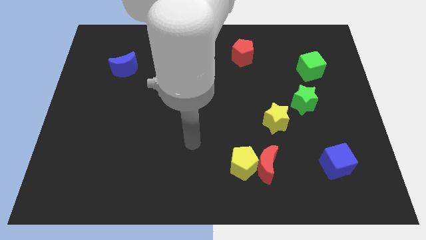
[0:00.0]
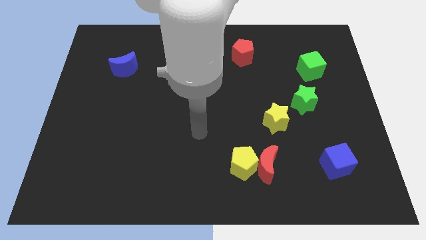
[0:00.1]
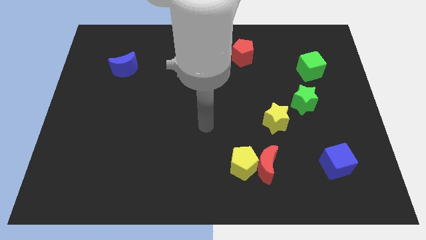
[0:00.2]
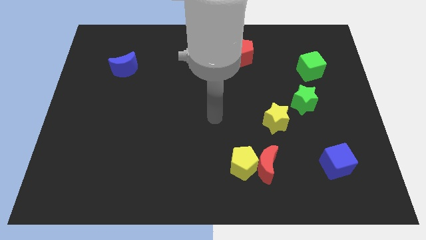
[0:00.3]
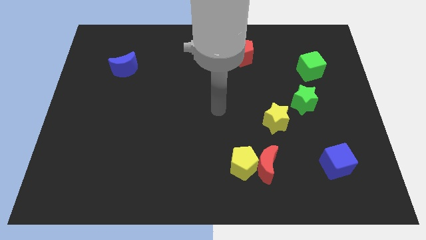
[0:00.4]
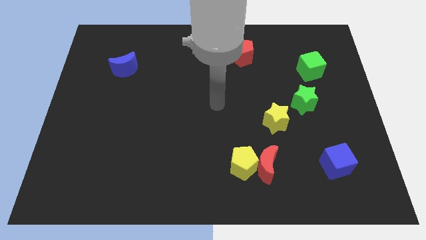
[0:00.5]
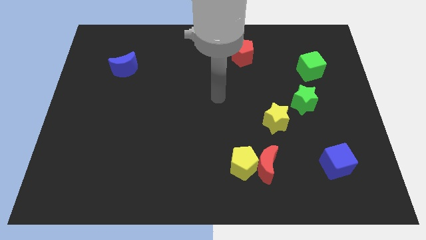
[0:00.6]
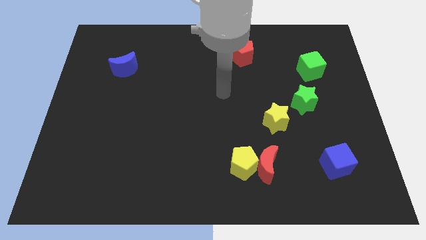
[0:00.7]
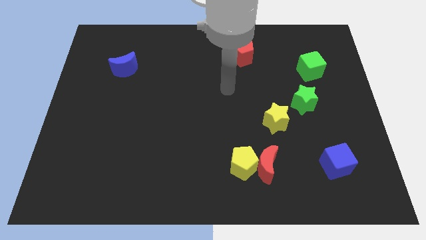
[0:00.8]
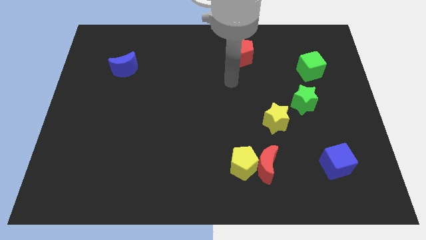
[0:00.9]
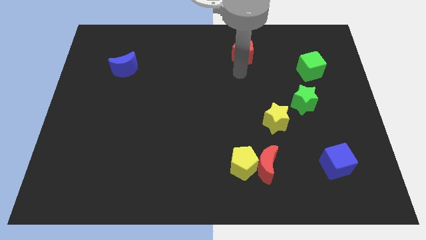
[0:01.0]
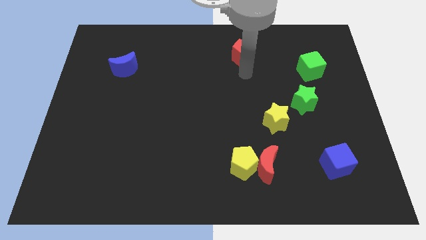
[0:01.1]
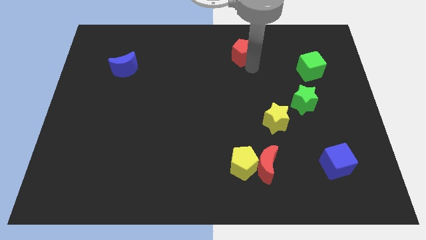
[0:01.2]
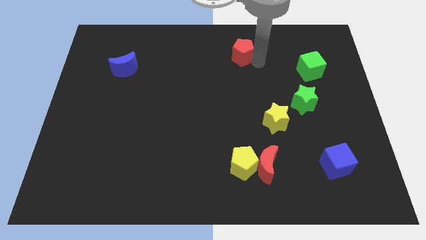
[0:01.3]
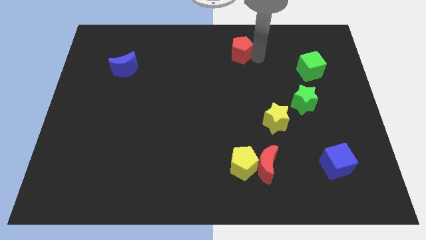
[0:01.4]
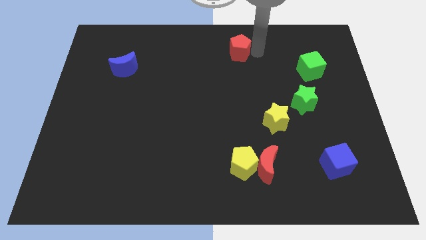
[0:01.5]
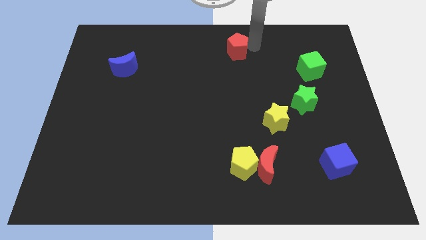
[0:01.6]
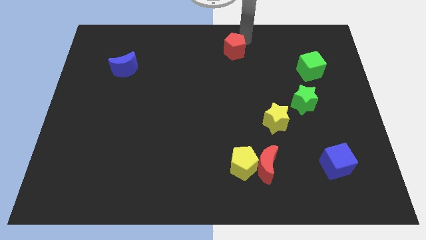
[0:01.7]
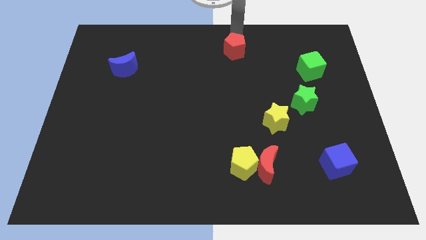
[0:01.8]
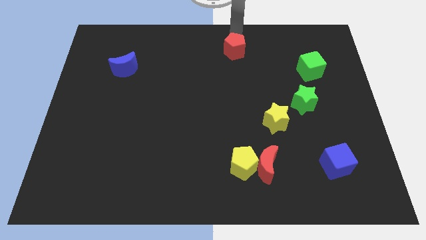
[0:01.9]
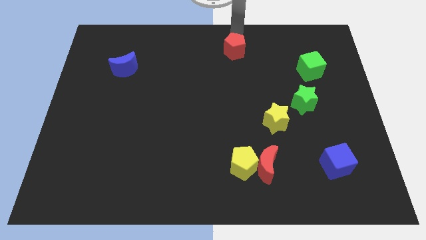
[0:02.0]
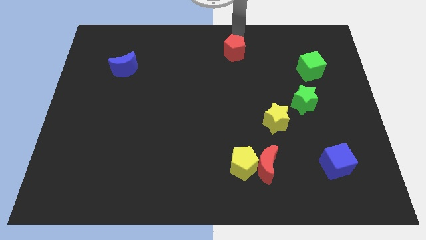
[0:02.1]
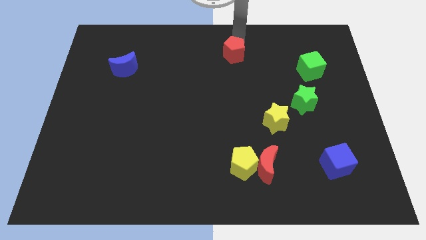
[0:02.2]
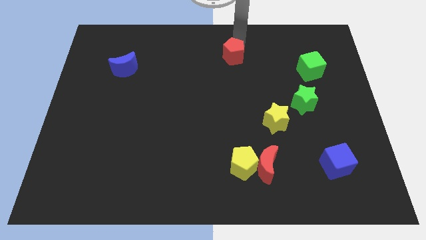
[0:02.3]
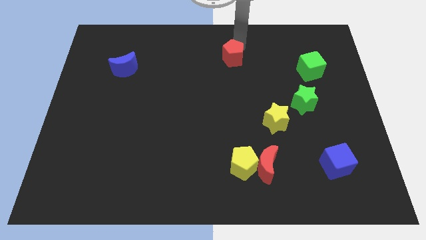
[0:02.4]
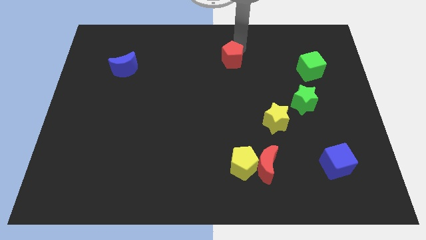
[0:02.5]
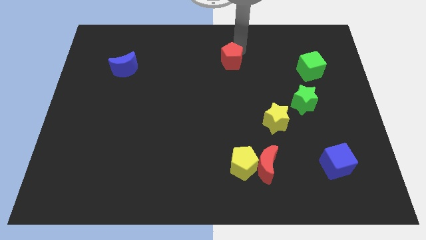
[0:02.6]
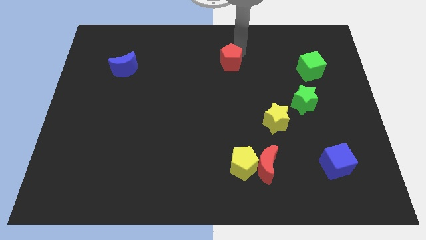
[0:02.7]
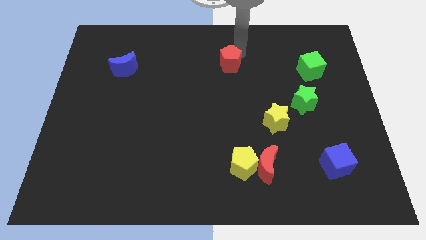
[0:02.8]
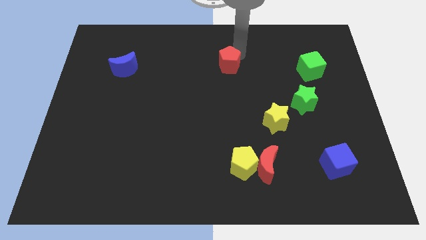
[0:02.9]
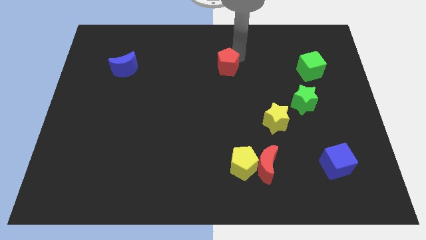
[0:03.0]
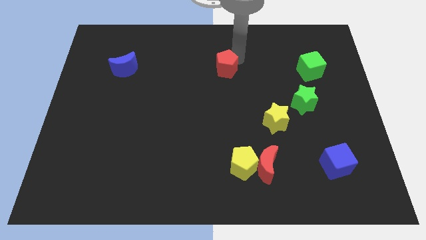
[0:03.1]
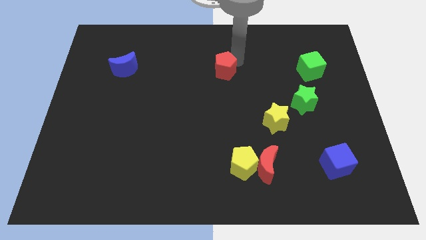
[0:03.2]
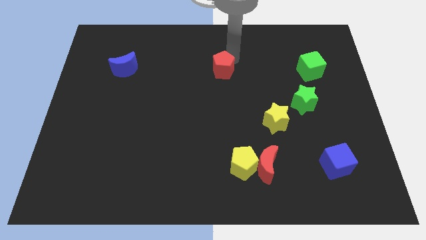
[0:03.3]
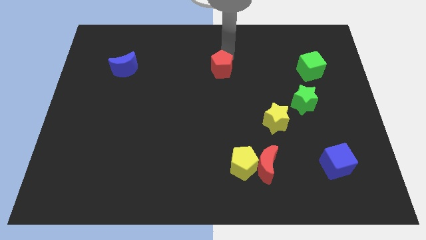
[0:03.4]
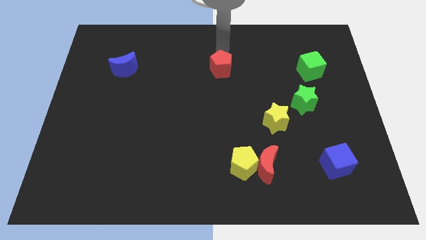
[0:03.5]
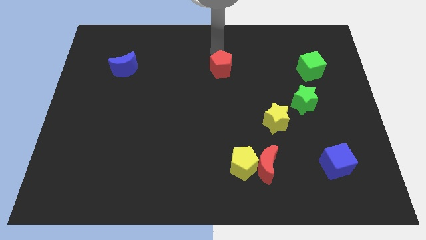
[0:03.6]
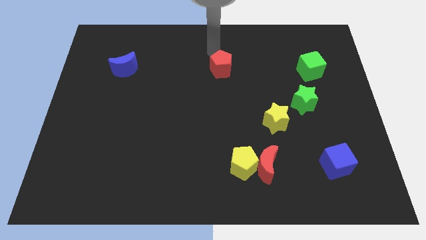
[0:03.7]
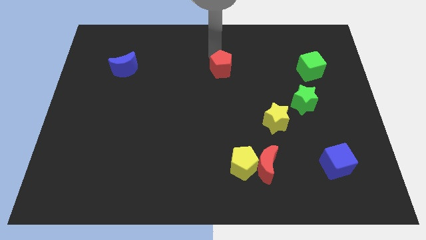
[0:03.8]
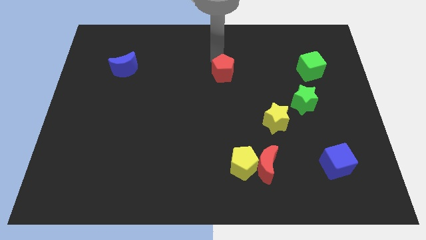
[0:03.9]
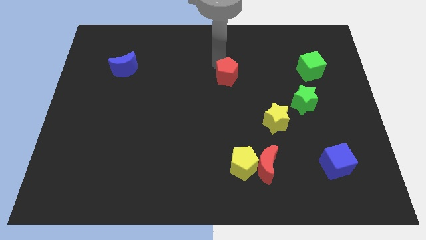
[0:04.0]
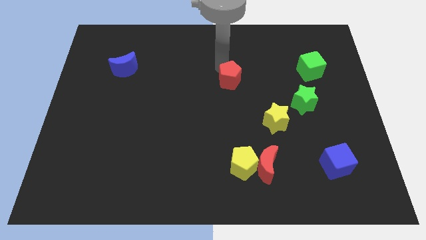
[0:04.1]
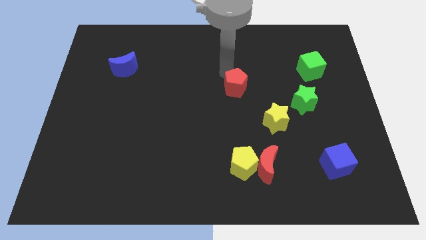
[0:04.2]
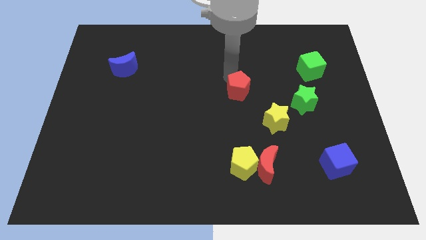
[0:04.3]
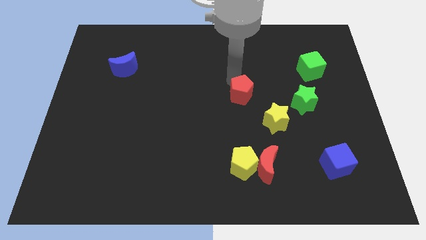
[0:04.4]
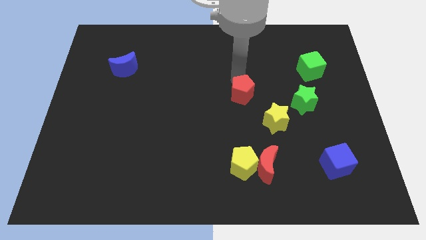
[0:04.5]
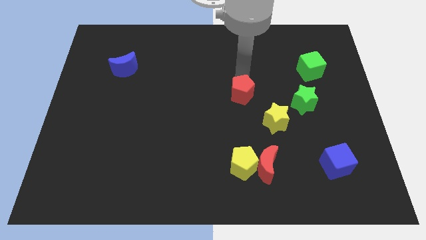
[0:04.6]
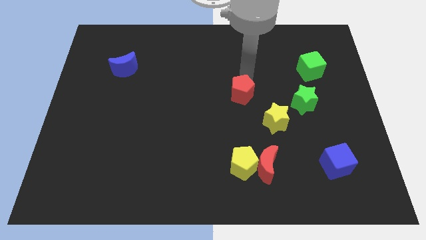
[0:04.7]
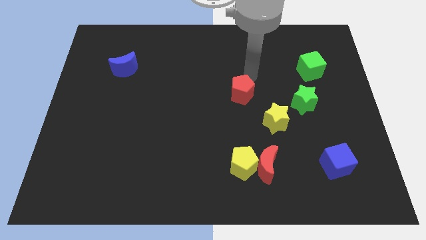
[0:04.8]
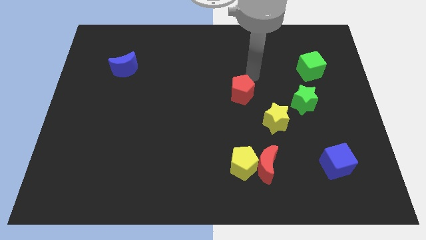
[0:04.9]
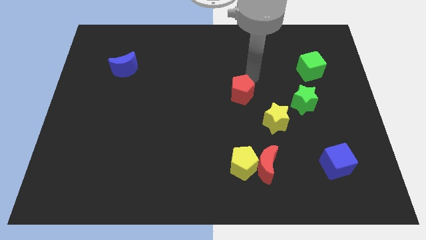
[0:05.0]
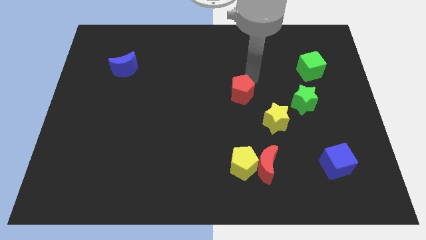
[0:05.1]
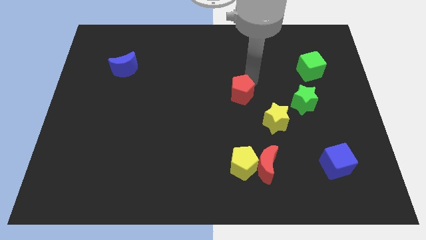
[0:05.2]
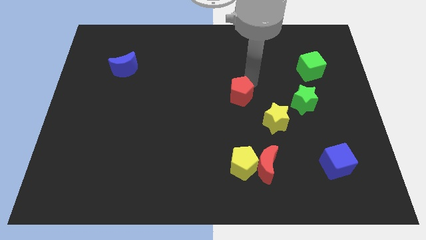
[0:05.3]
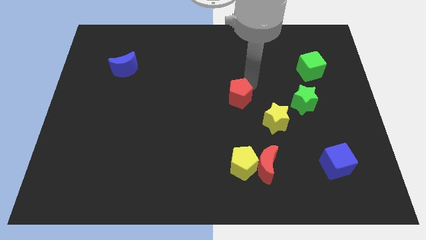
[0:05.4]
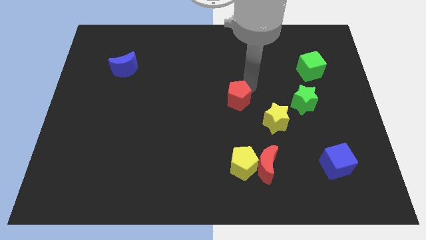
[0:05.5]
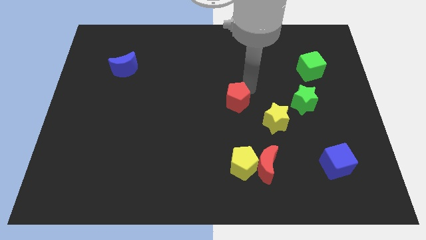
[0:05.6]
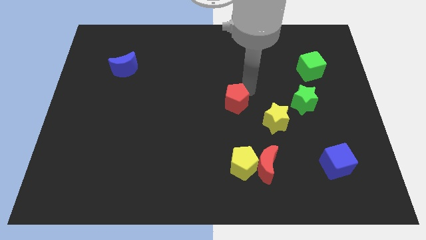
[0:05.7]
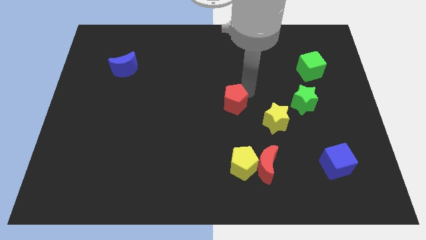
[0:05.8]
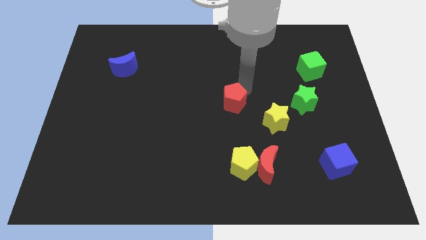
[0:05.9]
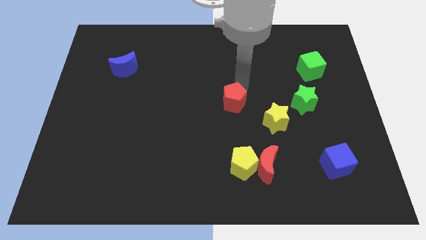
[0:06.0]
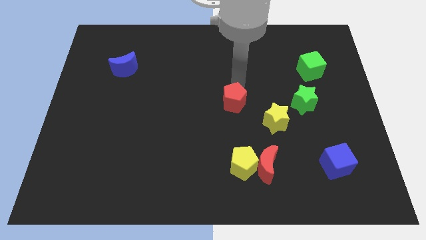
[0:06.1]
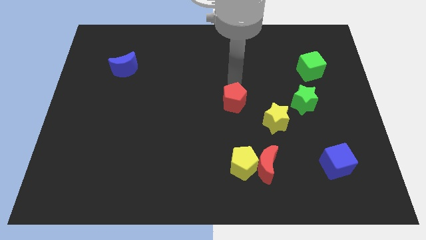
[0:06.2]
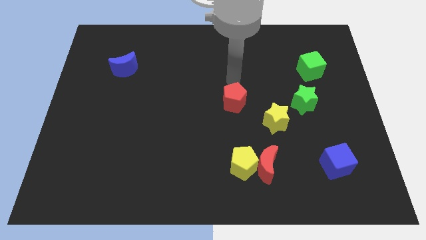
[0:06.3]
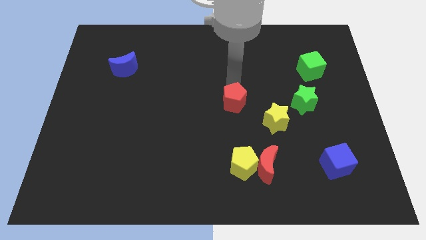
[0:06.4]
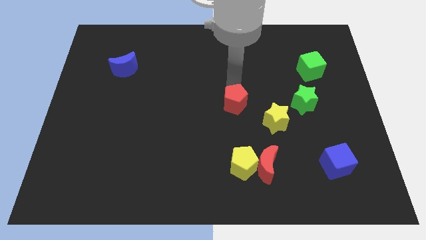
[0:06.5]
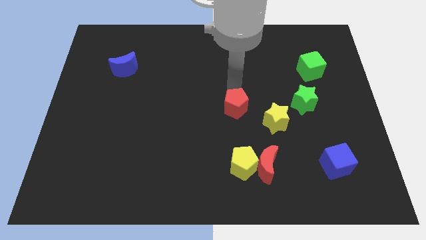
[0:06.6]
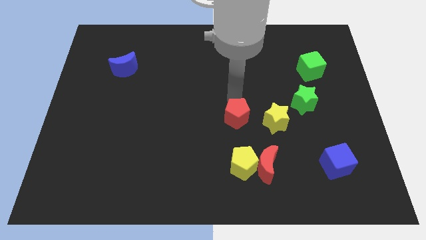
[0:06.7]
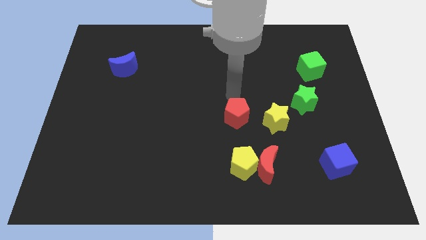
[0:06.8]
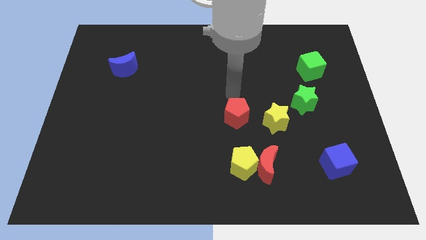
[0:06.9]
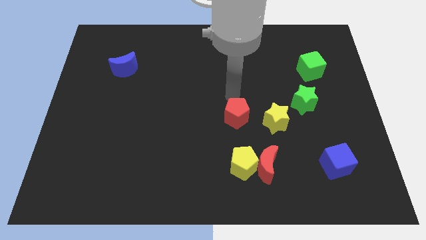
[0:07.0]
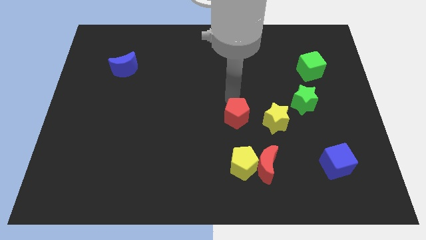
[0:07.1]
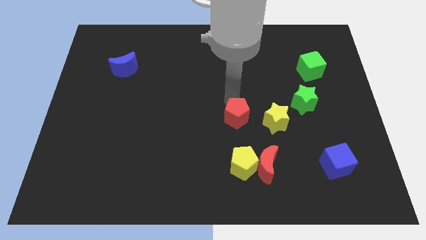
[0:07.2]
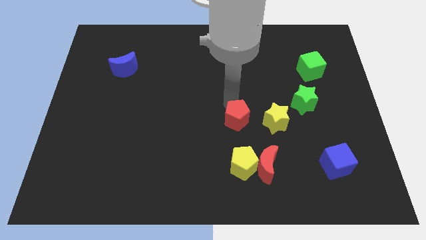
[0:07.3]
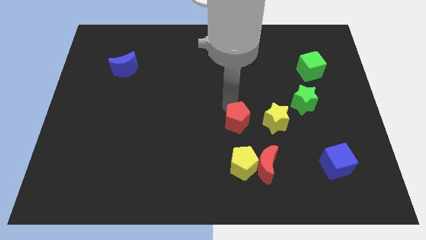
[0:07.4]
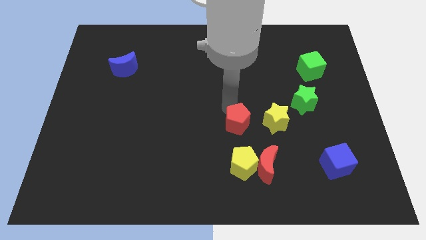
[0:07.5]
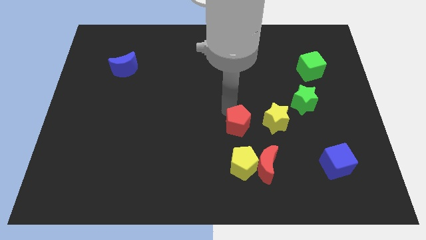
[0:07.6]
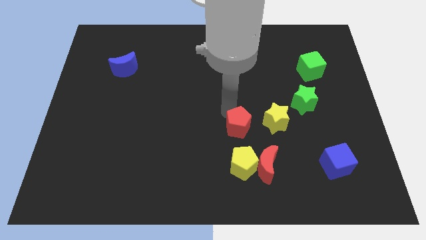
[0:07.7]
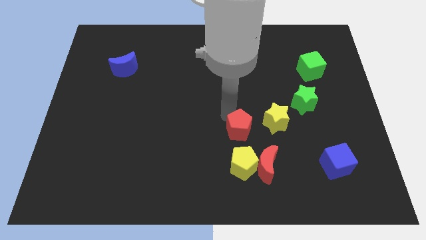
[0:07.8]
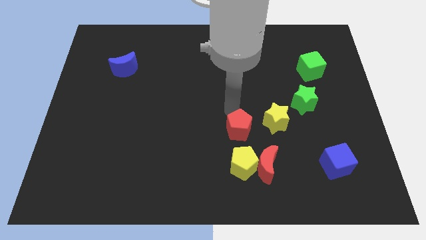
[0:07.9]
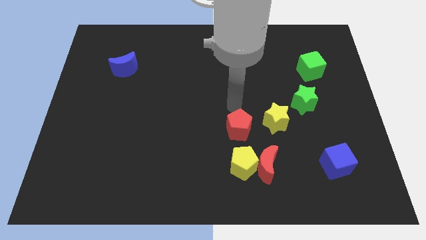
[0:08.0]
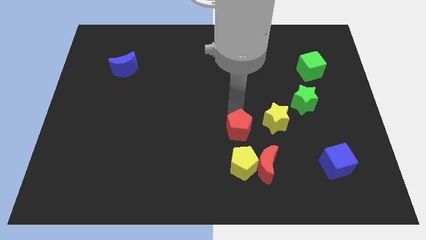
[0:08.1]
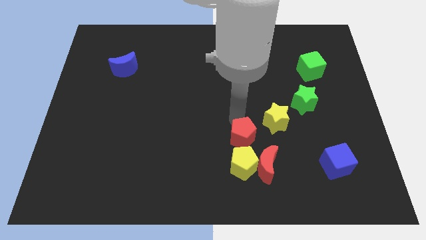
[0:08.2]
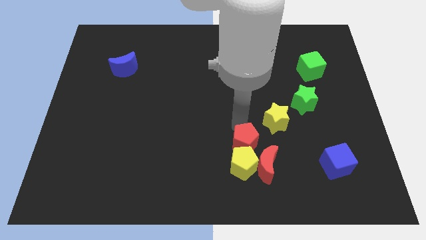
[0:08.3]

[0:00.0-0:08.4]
put the red pentagon towards the yellow pentagon
